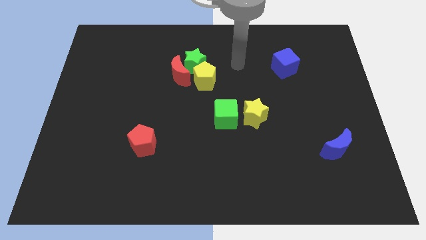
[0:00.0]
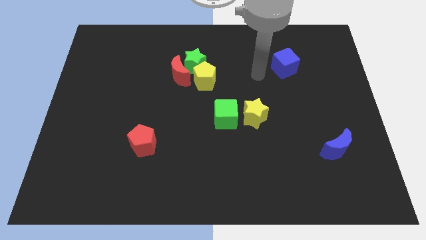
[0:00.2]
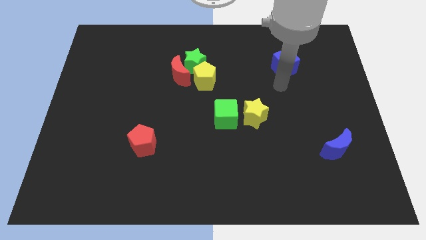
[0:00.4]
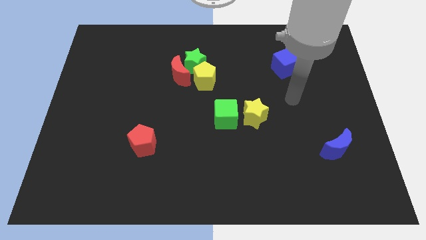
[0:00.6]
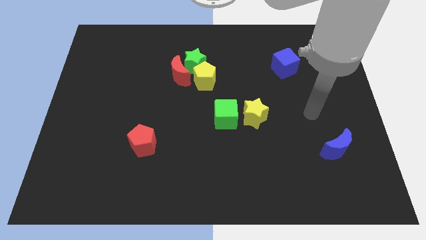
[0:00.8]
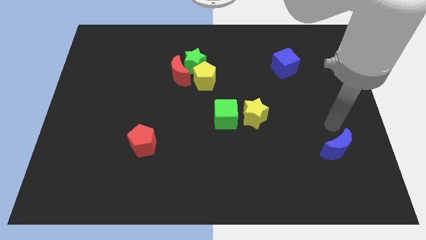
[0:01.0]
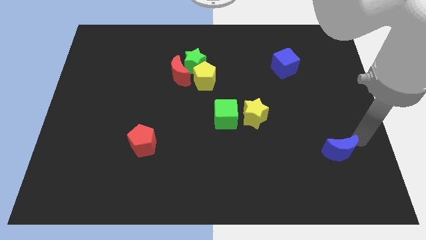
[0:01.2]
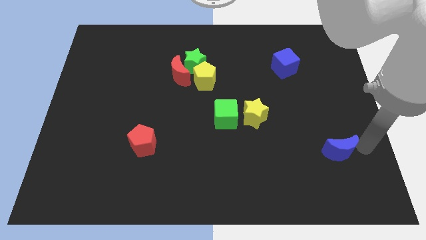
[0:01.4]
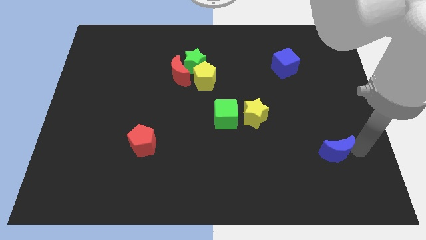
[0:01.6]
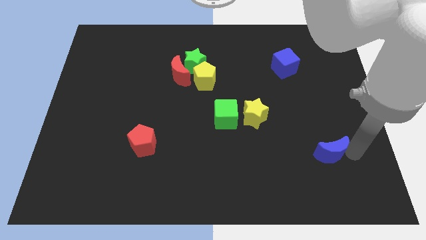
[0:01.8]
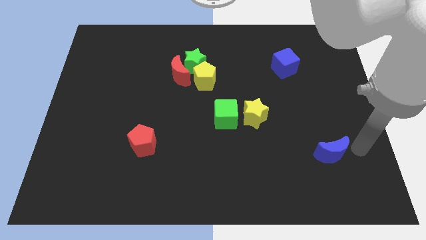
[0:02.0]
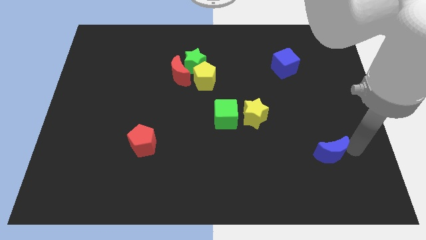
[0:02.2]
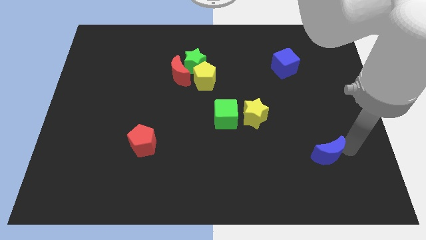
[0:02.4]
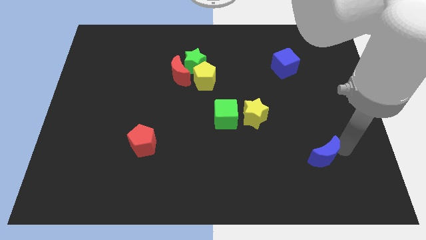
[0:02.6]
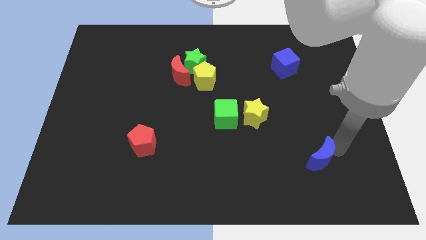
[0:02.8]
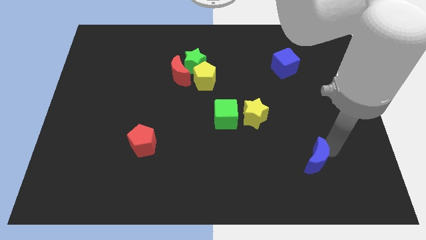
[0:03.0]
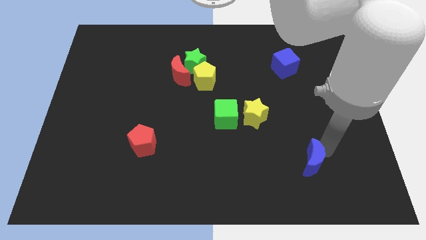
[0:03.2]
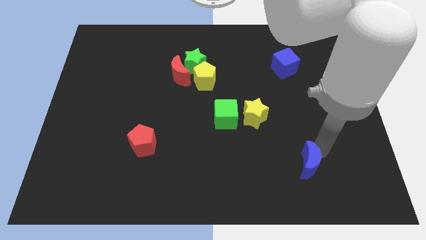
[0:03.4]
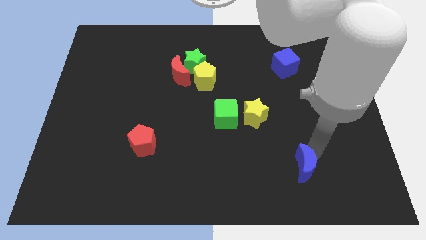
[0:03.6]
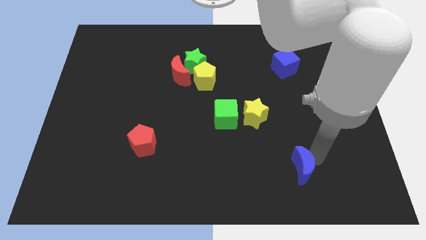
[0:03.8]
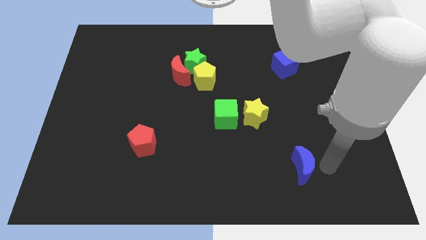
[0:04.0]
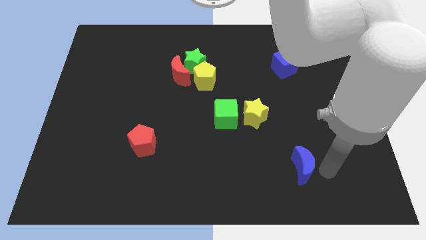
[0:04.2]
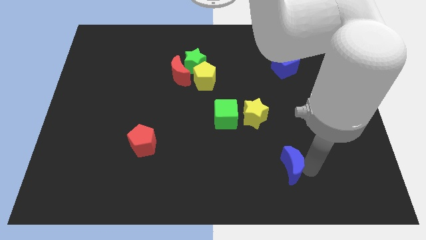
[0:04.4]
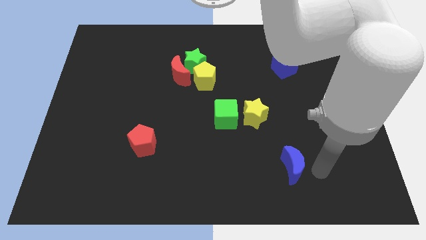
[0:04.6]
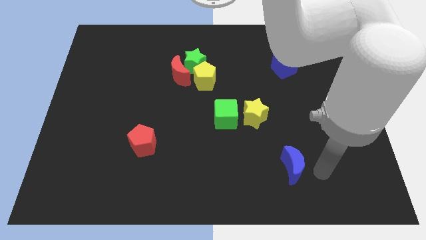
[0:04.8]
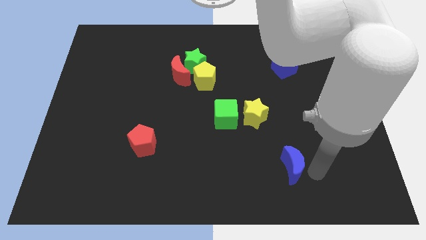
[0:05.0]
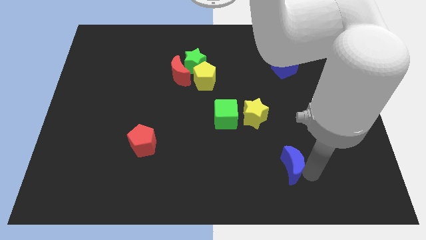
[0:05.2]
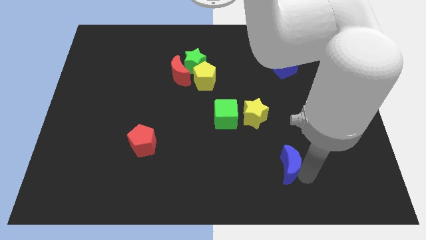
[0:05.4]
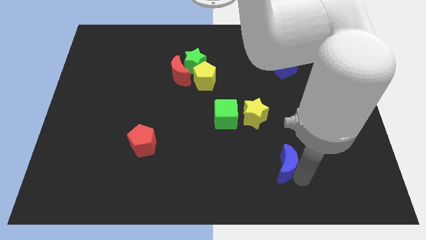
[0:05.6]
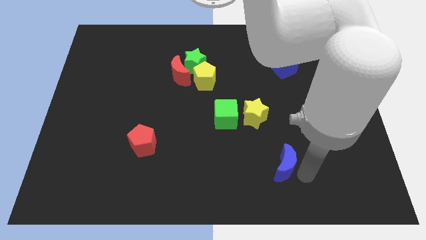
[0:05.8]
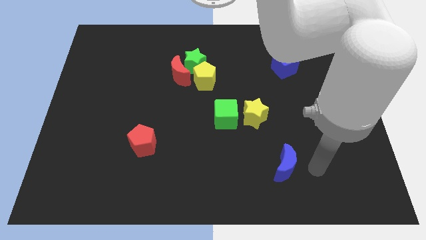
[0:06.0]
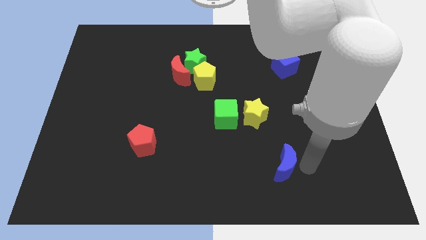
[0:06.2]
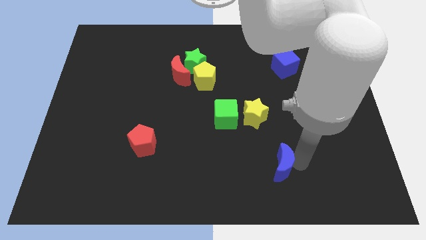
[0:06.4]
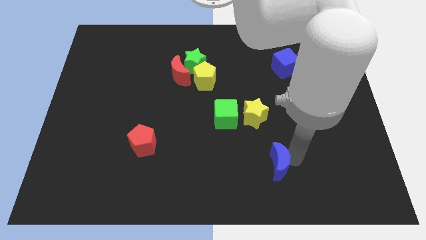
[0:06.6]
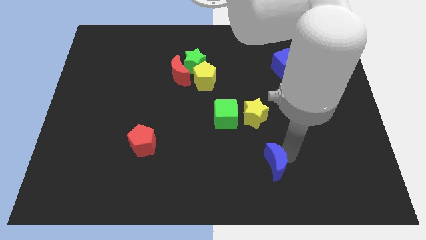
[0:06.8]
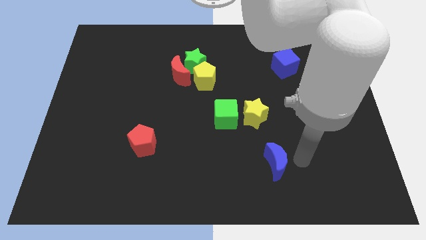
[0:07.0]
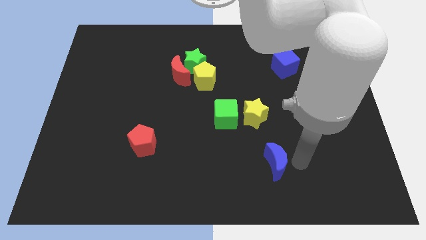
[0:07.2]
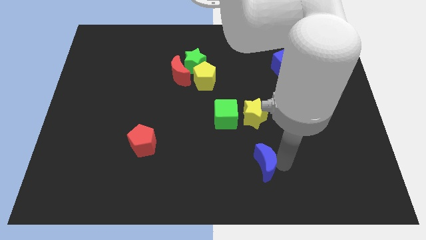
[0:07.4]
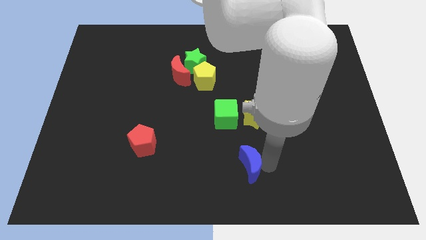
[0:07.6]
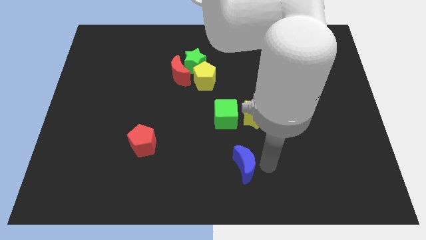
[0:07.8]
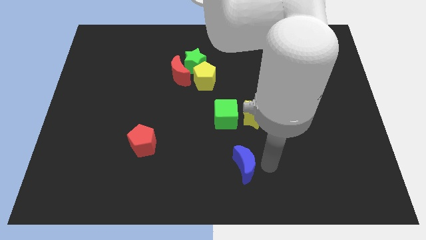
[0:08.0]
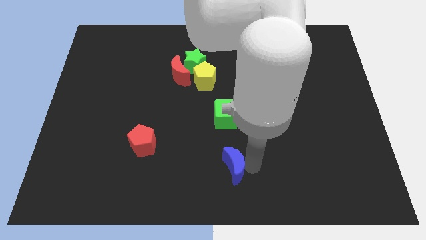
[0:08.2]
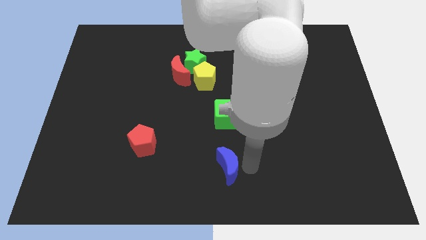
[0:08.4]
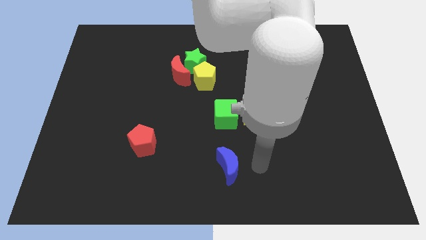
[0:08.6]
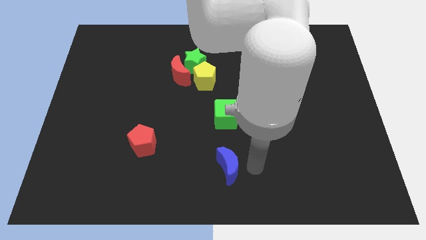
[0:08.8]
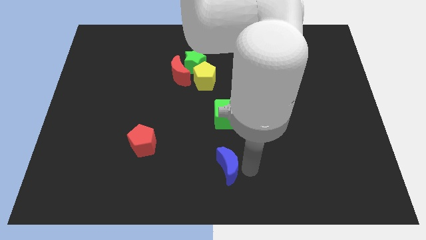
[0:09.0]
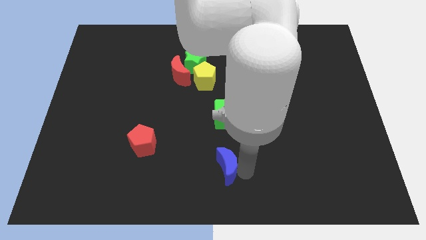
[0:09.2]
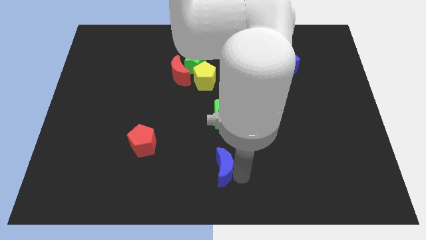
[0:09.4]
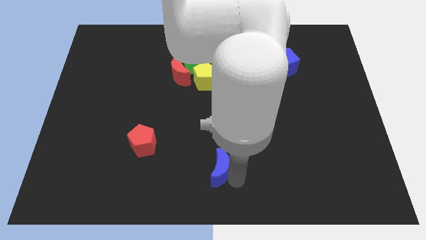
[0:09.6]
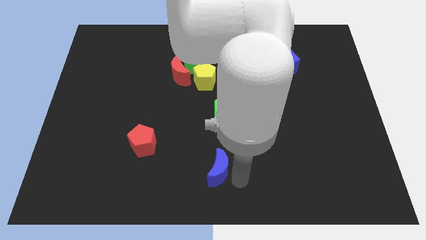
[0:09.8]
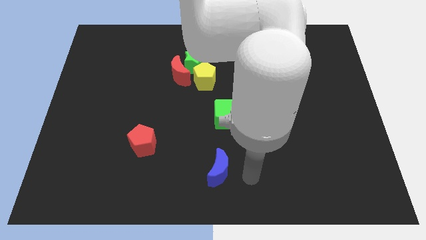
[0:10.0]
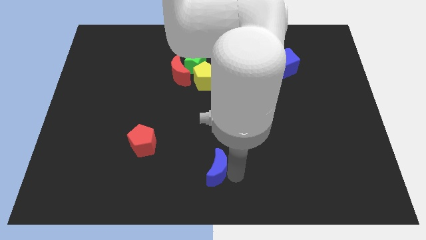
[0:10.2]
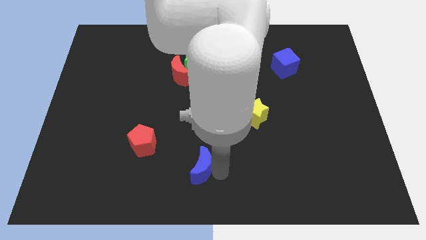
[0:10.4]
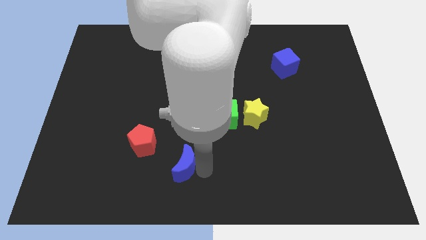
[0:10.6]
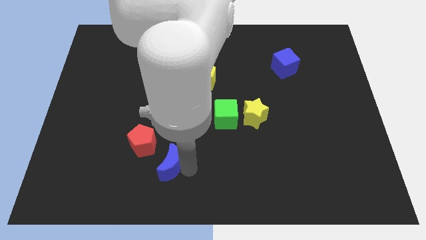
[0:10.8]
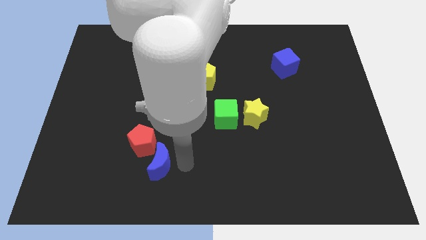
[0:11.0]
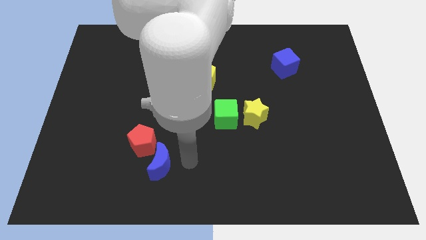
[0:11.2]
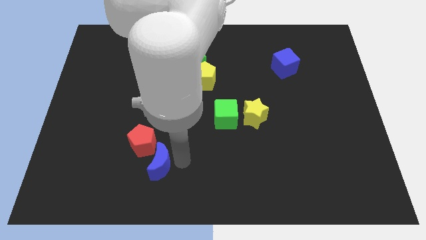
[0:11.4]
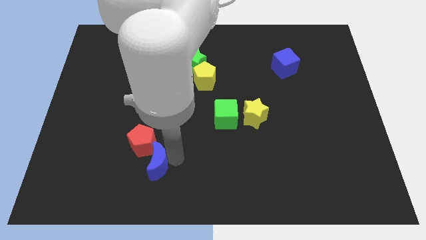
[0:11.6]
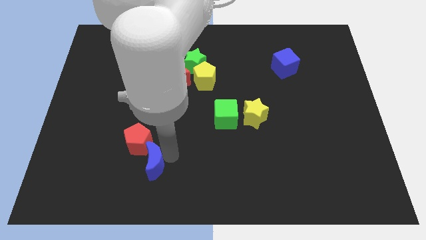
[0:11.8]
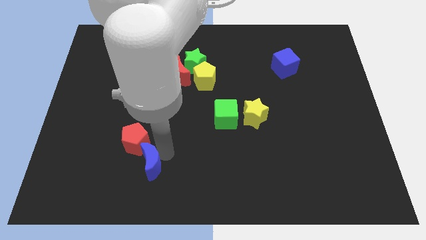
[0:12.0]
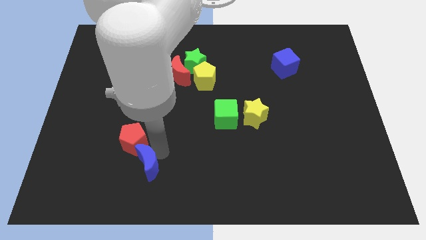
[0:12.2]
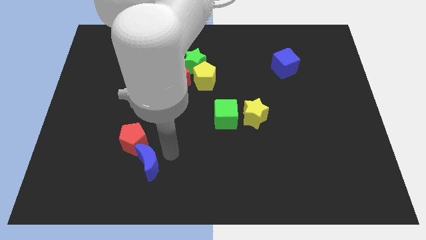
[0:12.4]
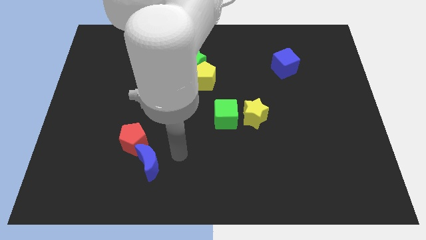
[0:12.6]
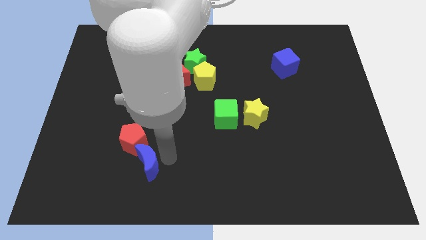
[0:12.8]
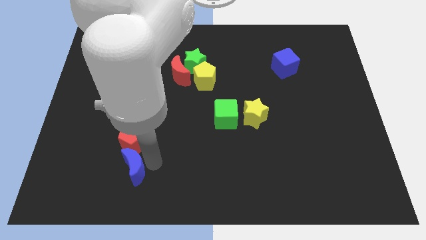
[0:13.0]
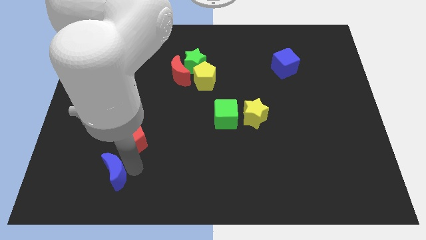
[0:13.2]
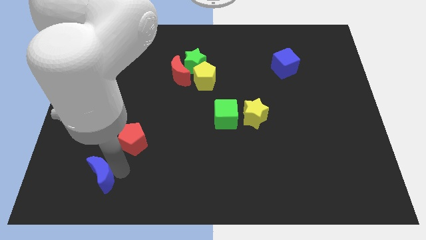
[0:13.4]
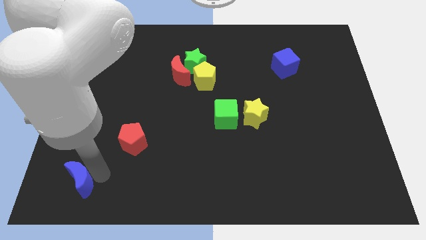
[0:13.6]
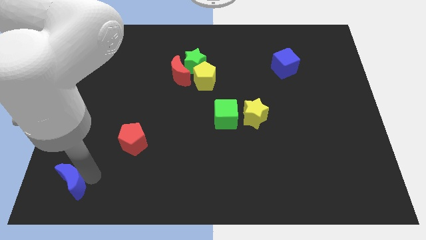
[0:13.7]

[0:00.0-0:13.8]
slide the blue moon to the bottom left corner
